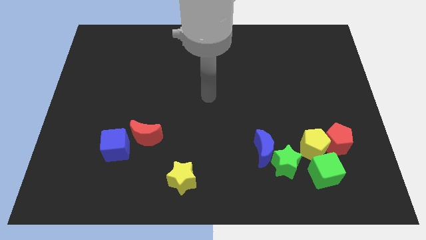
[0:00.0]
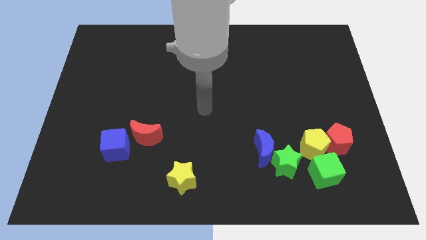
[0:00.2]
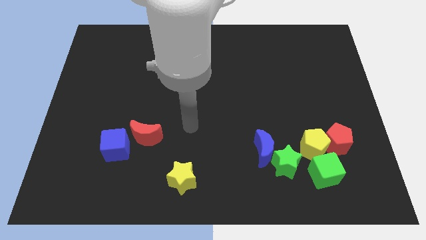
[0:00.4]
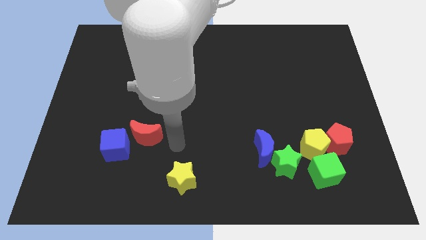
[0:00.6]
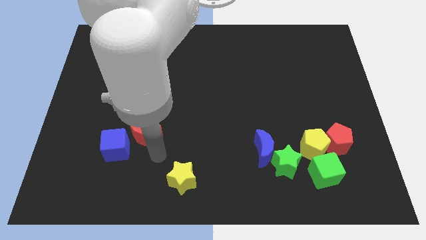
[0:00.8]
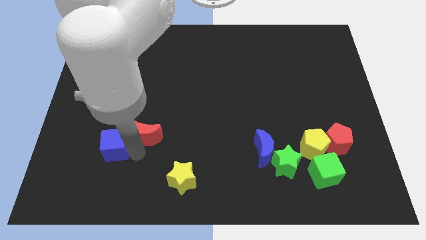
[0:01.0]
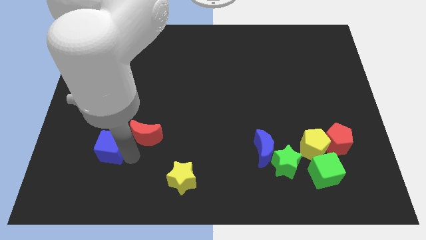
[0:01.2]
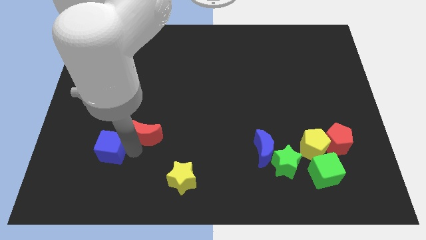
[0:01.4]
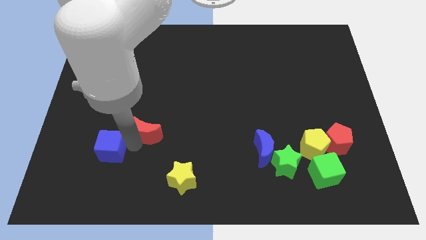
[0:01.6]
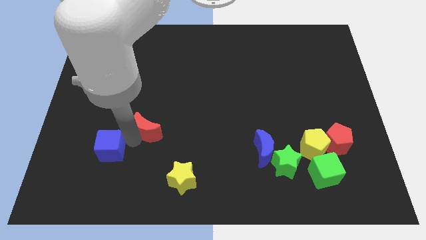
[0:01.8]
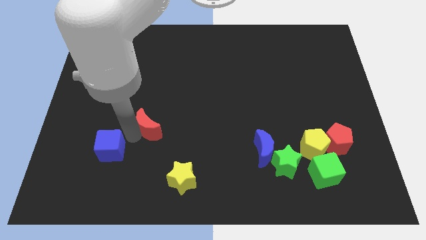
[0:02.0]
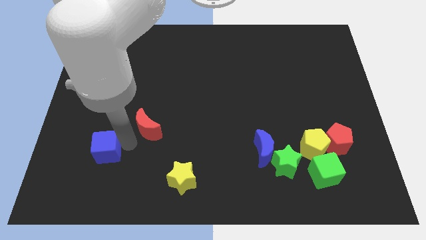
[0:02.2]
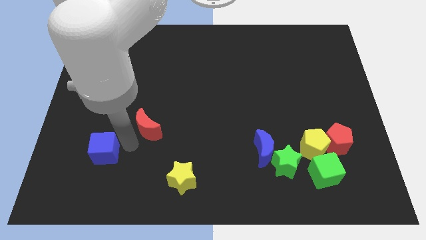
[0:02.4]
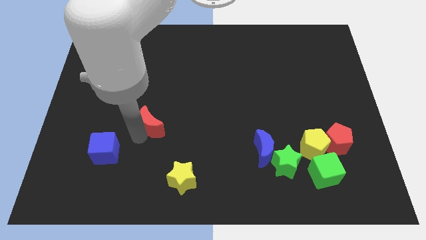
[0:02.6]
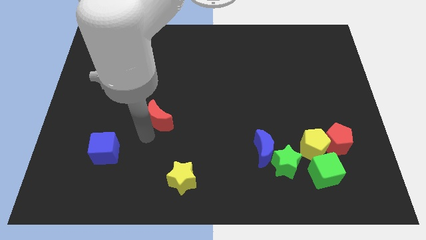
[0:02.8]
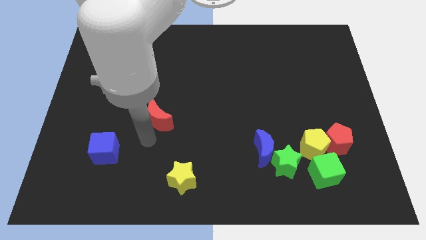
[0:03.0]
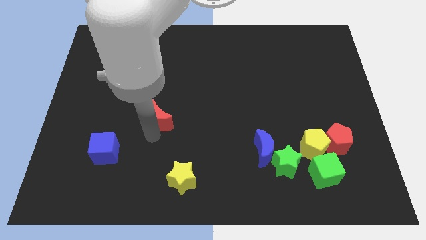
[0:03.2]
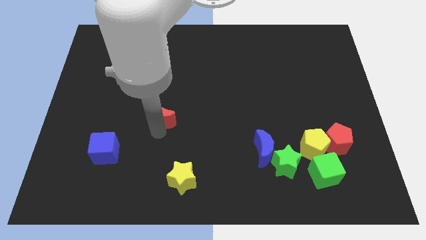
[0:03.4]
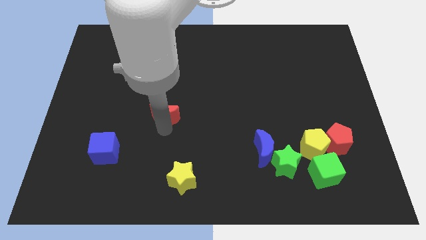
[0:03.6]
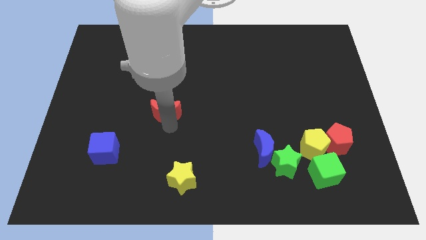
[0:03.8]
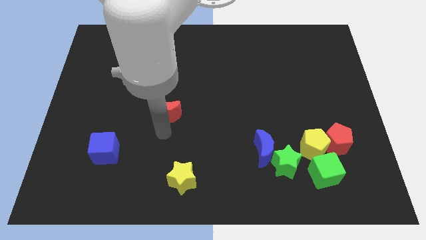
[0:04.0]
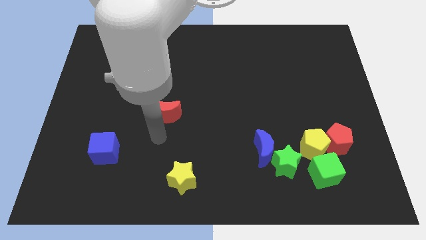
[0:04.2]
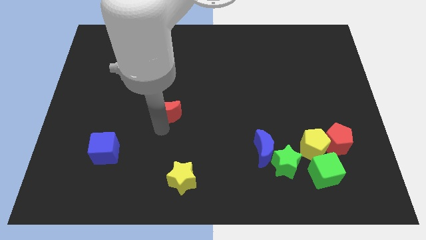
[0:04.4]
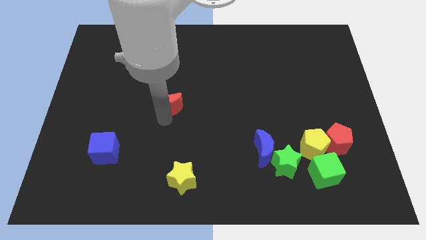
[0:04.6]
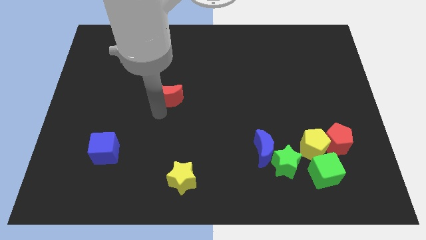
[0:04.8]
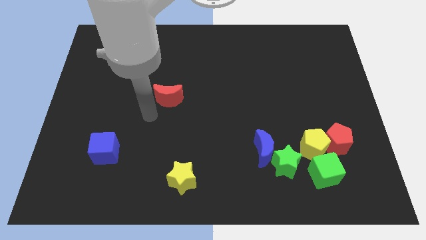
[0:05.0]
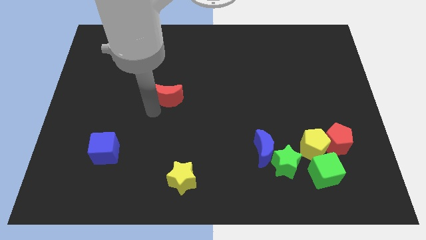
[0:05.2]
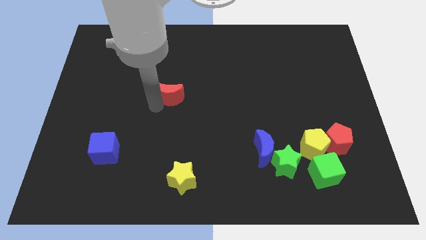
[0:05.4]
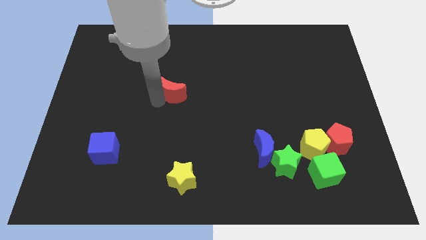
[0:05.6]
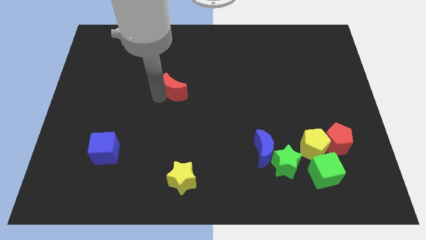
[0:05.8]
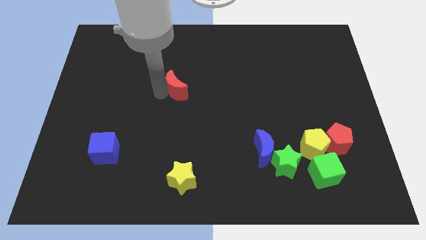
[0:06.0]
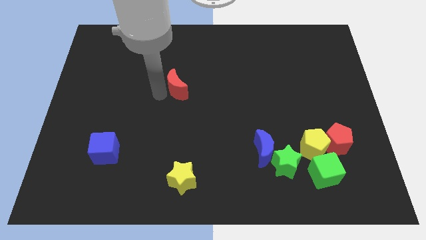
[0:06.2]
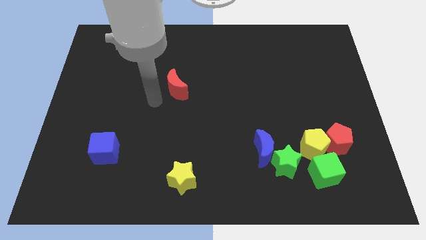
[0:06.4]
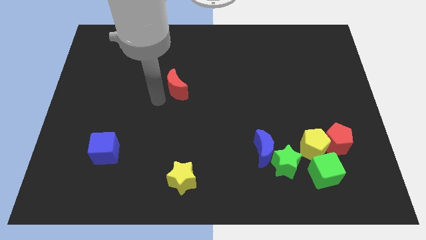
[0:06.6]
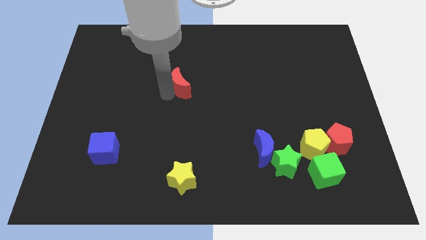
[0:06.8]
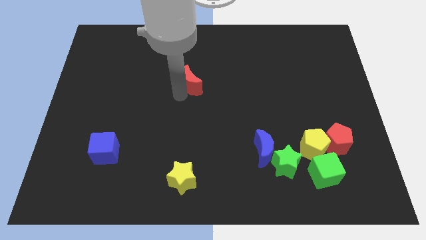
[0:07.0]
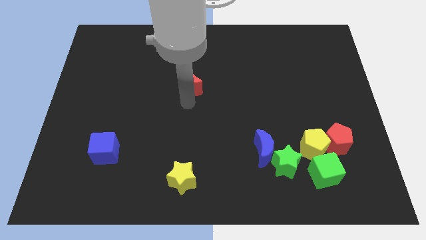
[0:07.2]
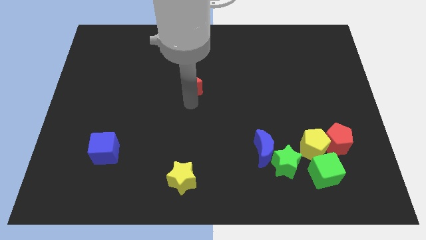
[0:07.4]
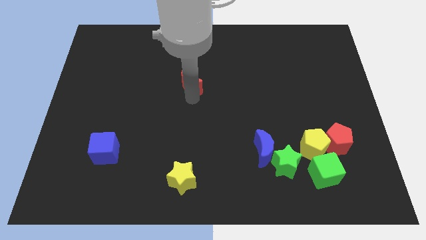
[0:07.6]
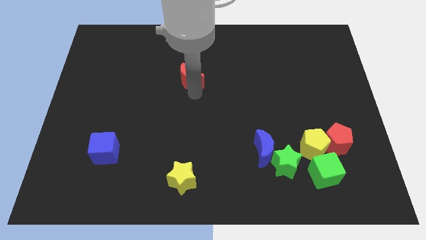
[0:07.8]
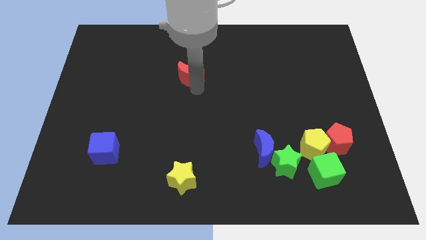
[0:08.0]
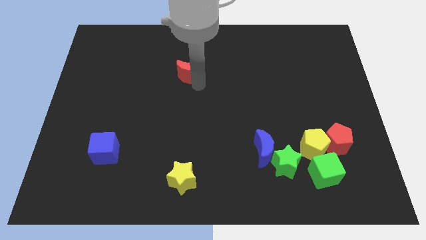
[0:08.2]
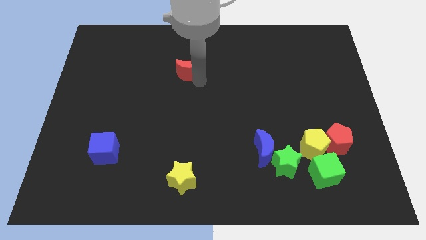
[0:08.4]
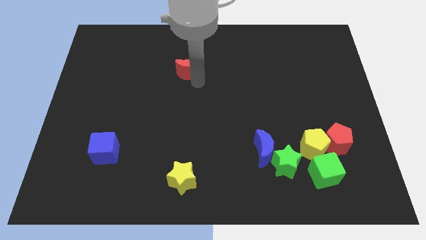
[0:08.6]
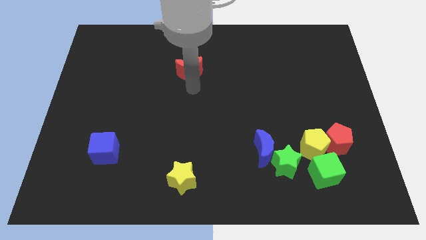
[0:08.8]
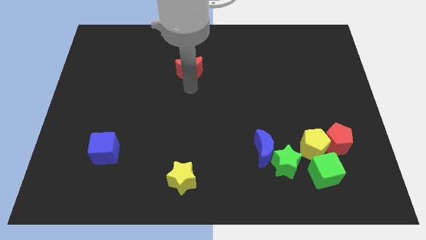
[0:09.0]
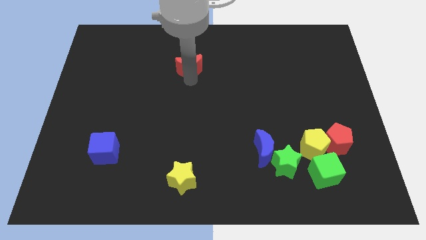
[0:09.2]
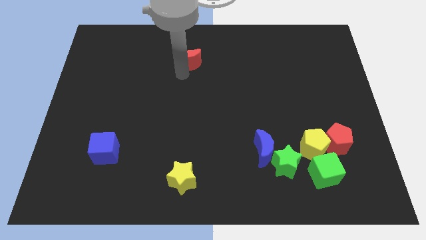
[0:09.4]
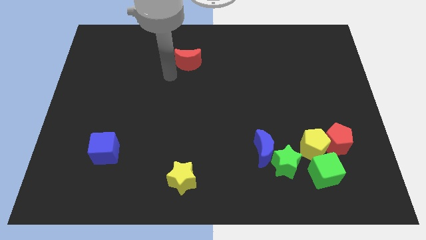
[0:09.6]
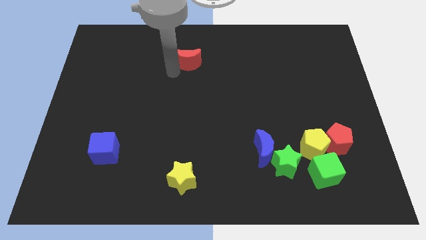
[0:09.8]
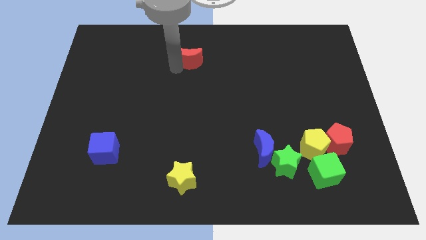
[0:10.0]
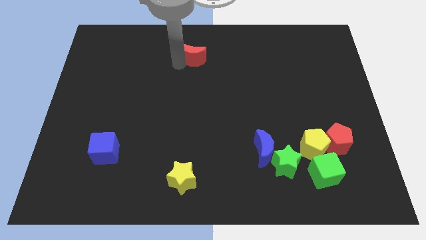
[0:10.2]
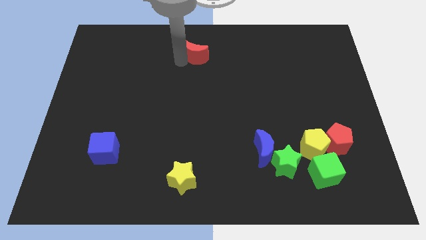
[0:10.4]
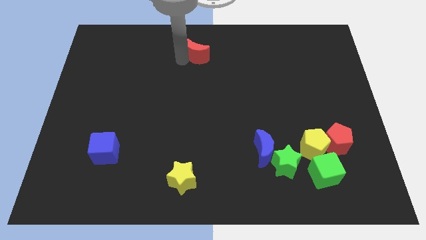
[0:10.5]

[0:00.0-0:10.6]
move the red moon to the top side

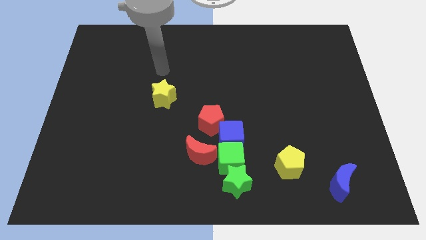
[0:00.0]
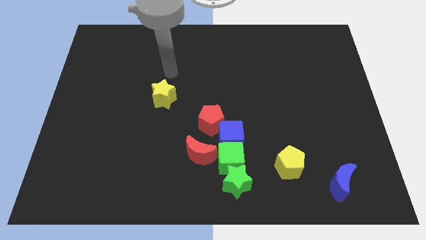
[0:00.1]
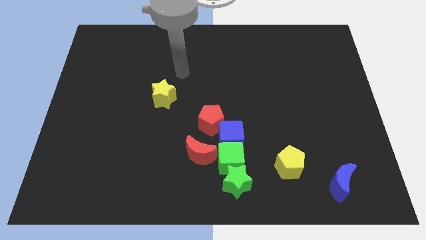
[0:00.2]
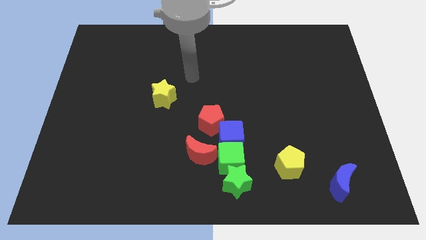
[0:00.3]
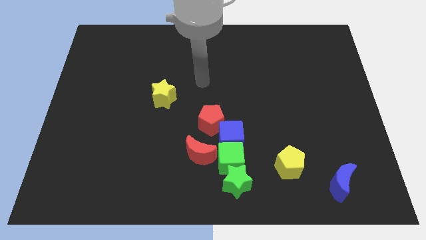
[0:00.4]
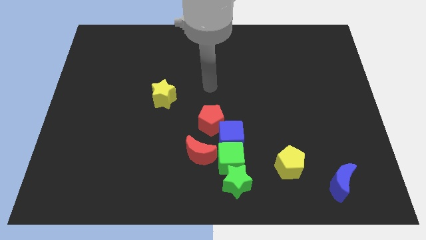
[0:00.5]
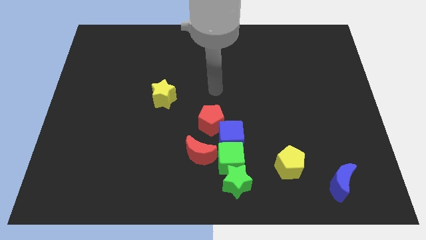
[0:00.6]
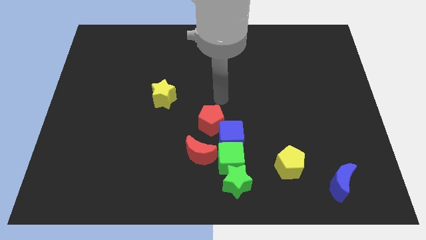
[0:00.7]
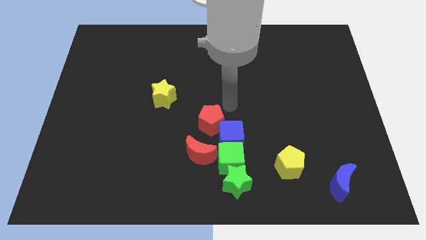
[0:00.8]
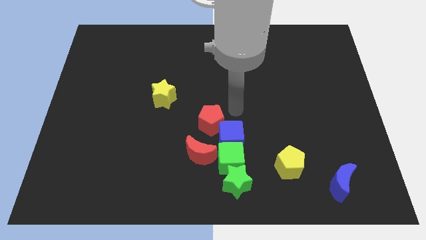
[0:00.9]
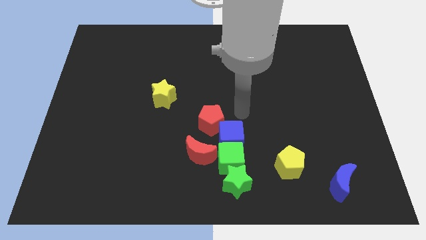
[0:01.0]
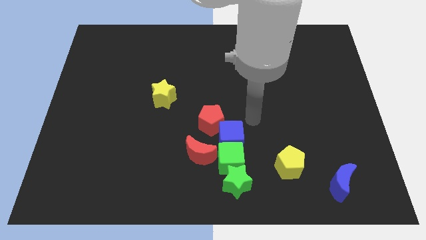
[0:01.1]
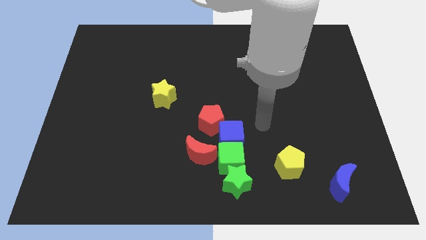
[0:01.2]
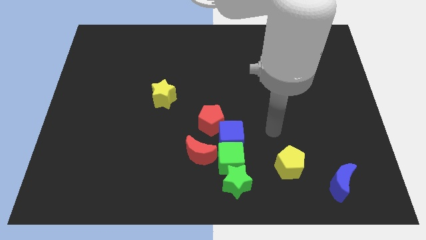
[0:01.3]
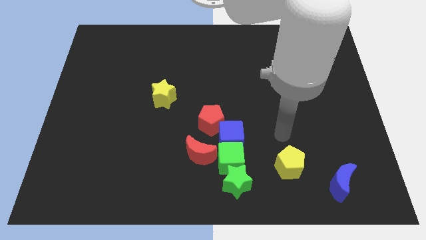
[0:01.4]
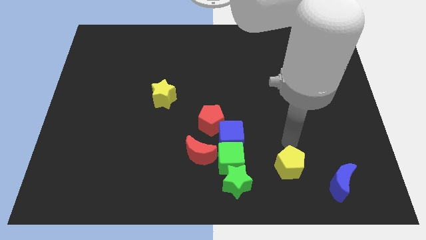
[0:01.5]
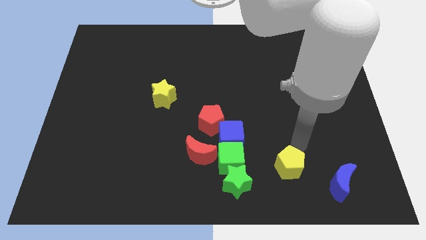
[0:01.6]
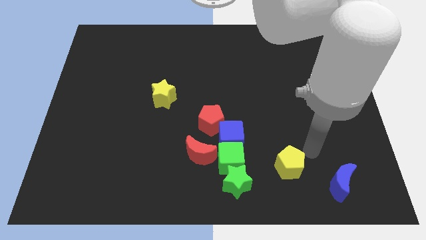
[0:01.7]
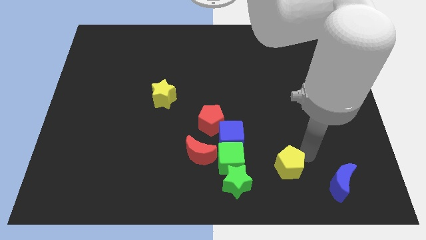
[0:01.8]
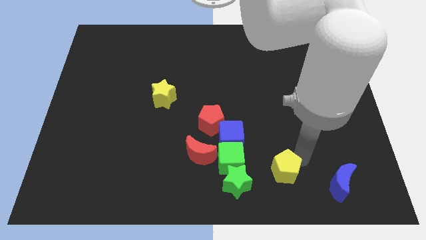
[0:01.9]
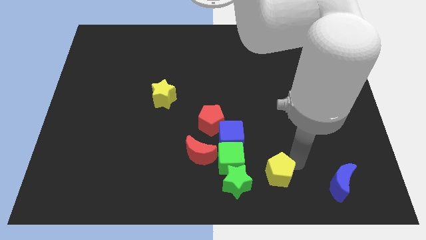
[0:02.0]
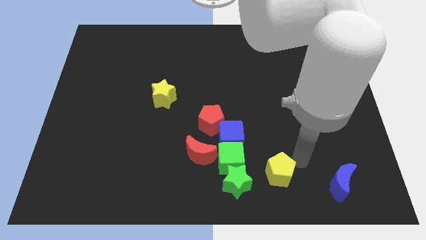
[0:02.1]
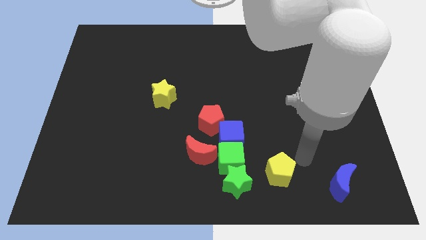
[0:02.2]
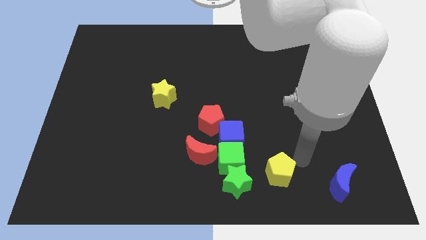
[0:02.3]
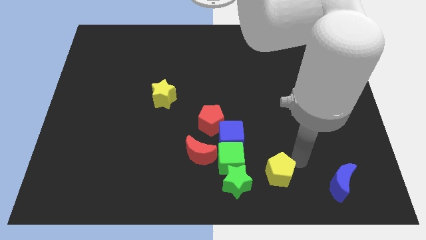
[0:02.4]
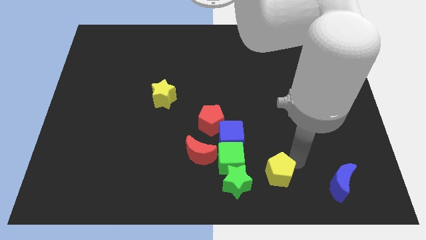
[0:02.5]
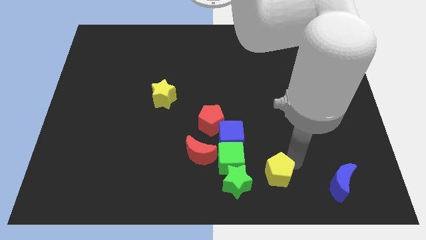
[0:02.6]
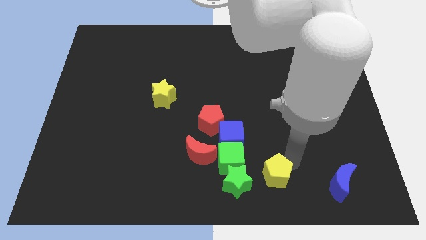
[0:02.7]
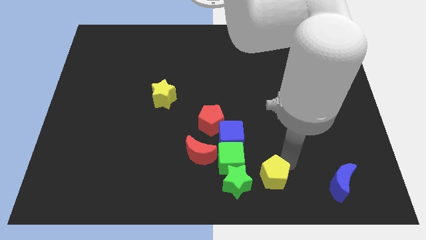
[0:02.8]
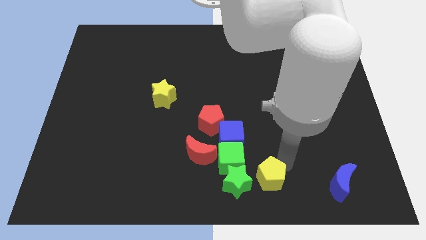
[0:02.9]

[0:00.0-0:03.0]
put the yellow pentagon to the bottom side
